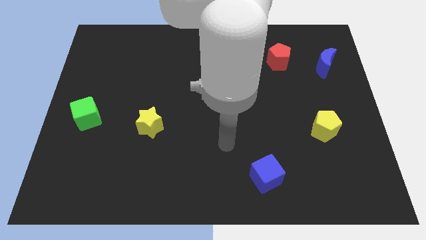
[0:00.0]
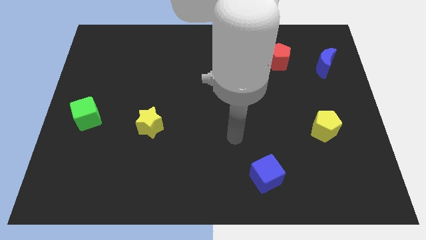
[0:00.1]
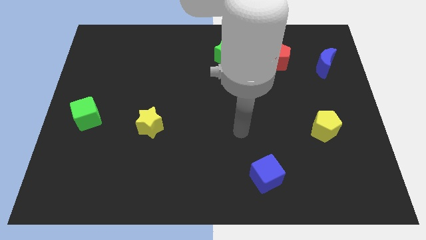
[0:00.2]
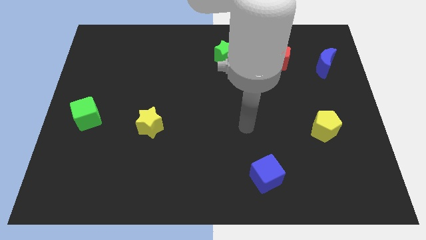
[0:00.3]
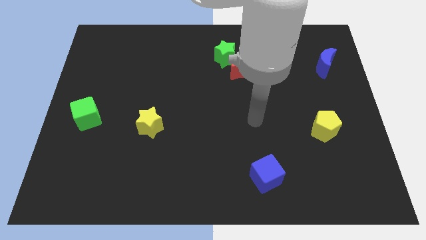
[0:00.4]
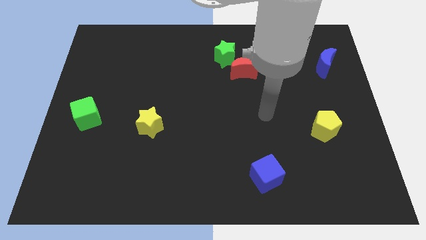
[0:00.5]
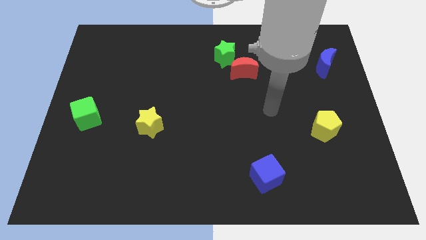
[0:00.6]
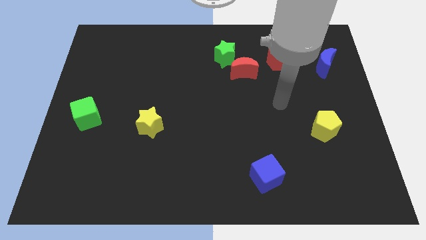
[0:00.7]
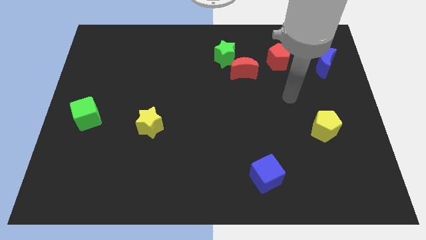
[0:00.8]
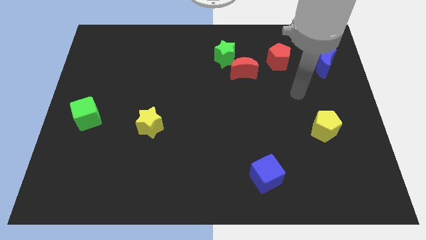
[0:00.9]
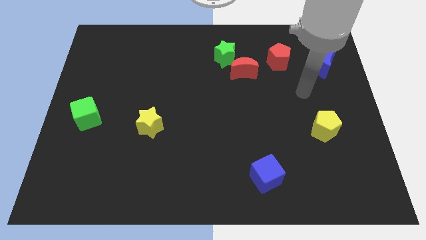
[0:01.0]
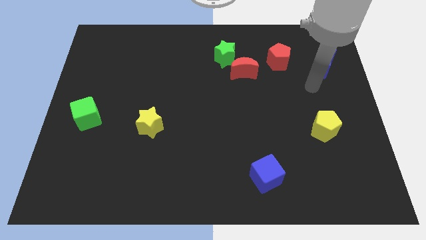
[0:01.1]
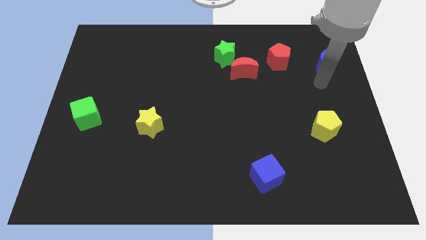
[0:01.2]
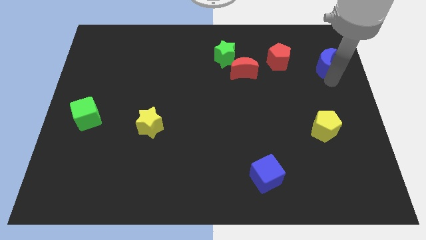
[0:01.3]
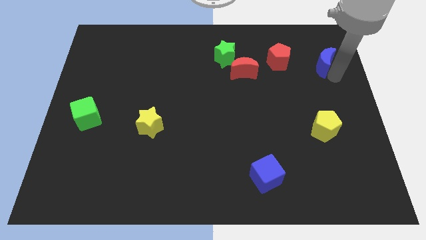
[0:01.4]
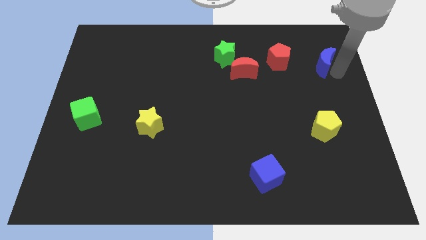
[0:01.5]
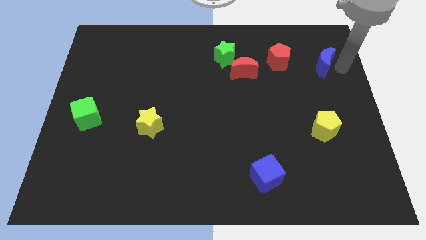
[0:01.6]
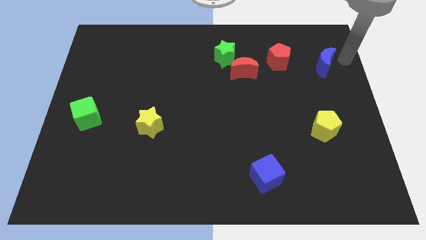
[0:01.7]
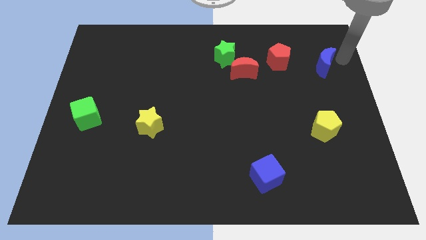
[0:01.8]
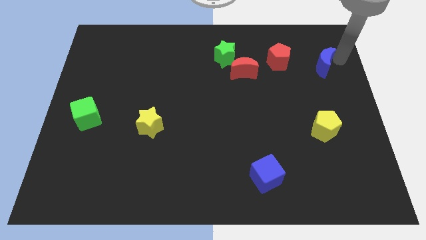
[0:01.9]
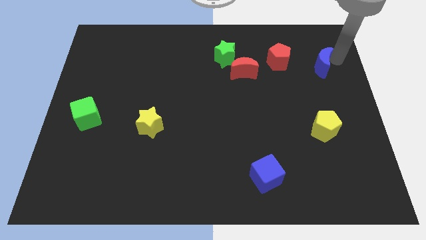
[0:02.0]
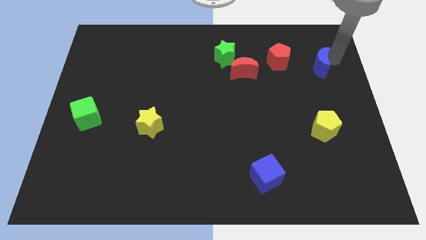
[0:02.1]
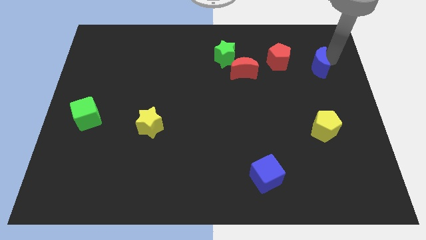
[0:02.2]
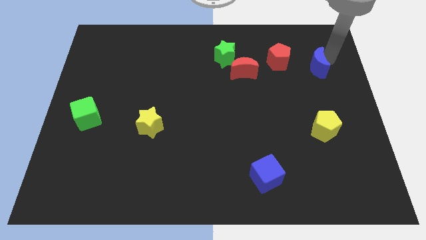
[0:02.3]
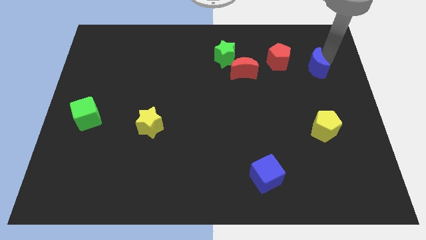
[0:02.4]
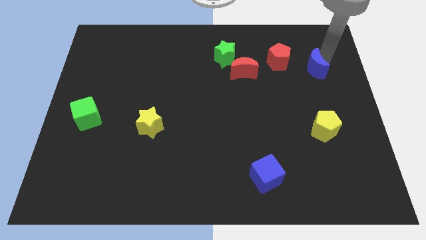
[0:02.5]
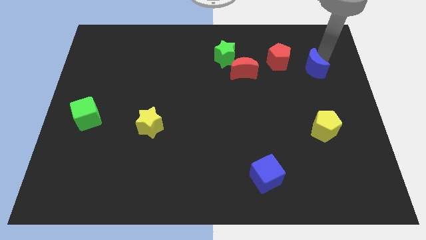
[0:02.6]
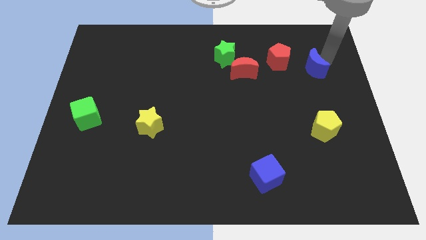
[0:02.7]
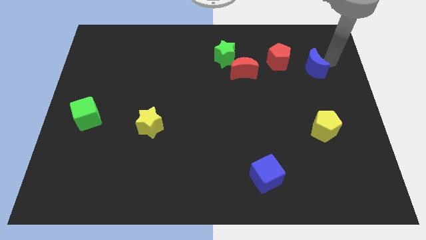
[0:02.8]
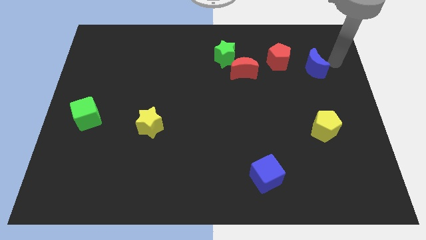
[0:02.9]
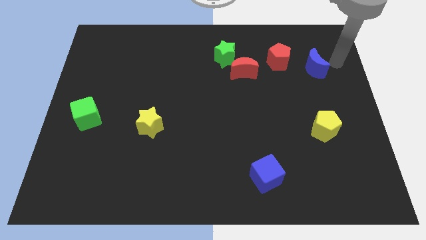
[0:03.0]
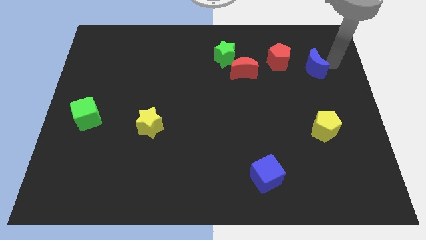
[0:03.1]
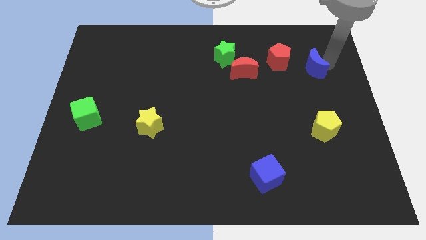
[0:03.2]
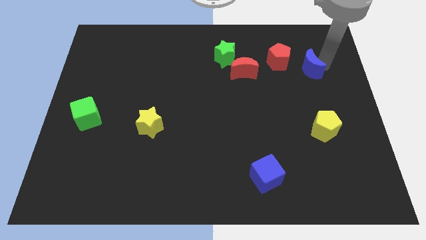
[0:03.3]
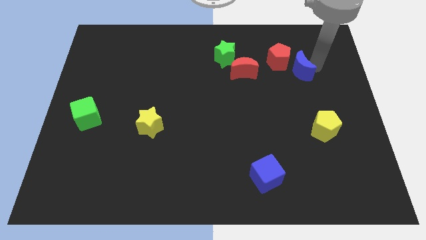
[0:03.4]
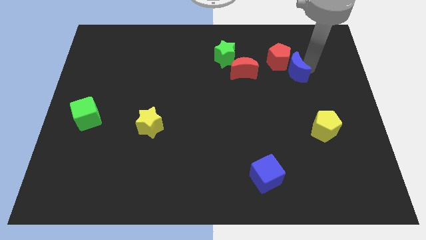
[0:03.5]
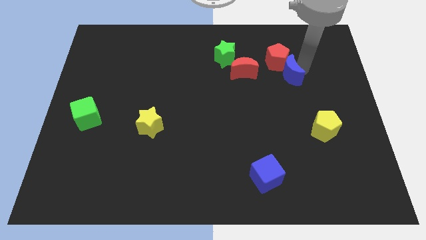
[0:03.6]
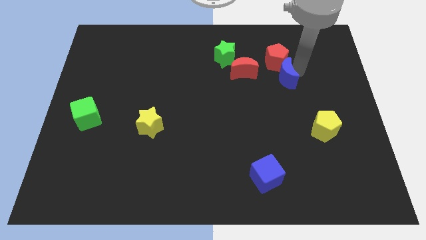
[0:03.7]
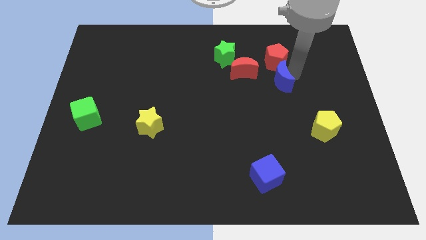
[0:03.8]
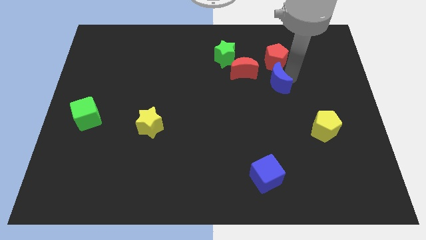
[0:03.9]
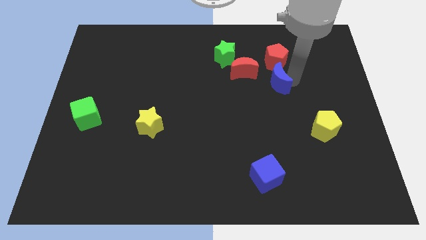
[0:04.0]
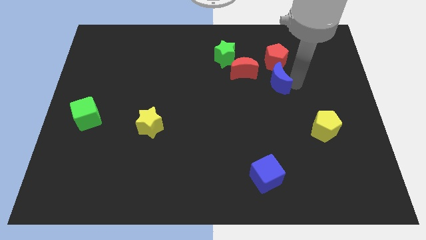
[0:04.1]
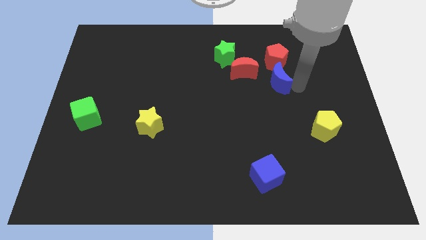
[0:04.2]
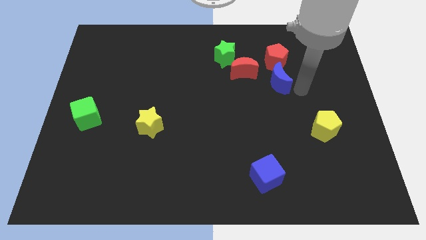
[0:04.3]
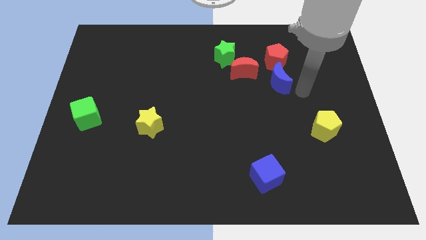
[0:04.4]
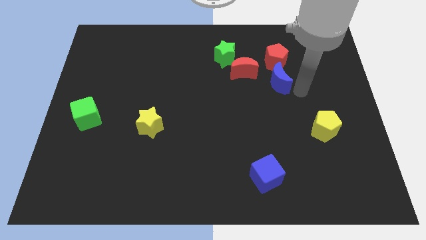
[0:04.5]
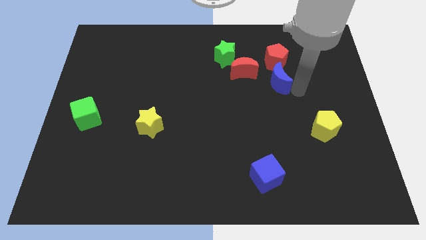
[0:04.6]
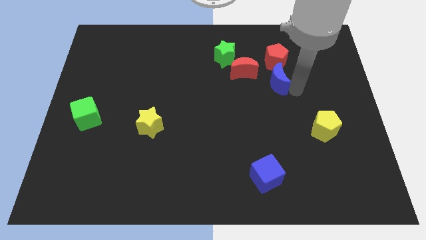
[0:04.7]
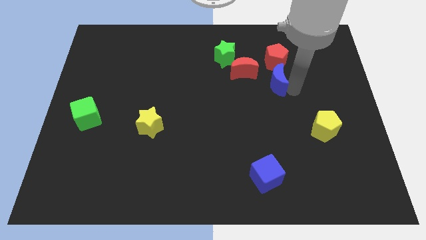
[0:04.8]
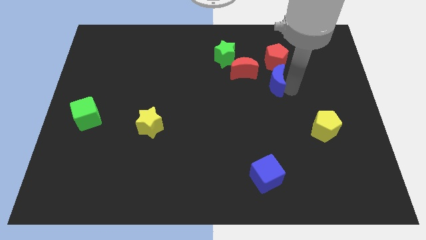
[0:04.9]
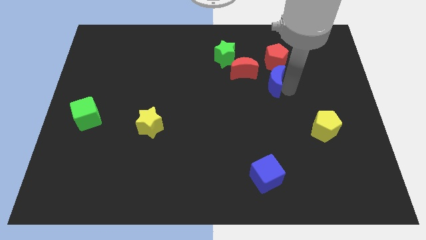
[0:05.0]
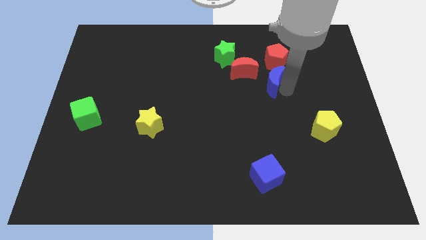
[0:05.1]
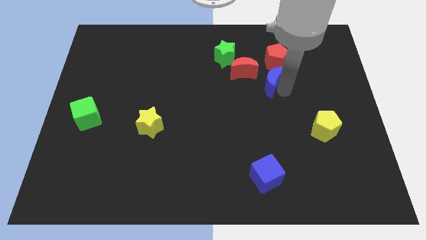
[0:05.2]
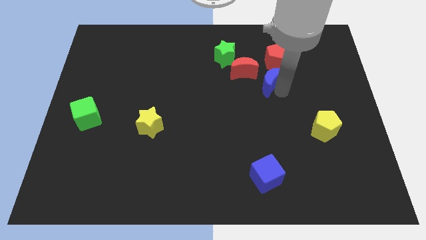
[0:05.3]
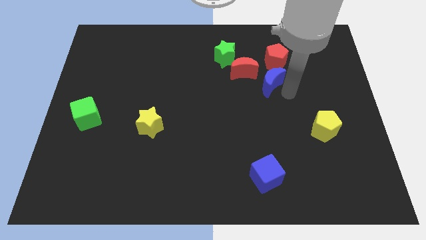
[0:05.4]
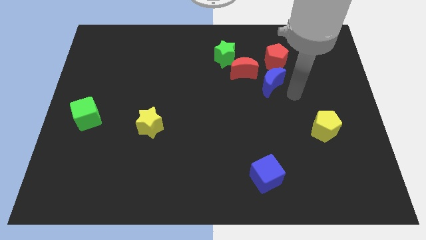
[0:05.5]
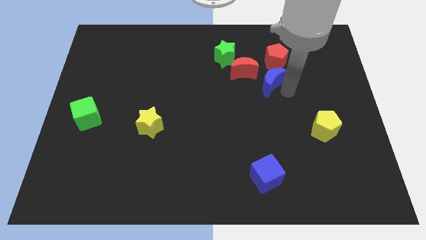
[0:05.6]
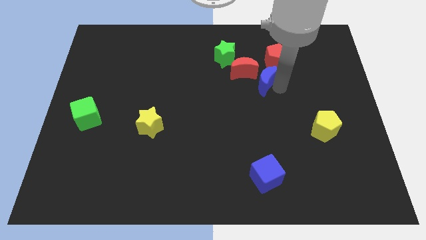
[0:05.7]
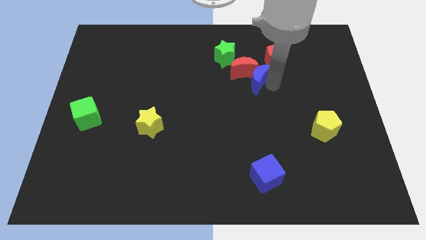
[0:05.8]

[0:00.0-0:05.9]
slide the blue moon to the red moon

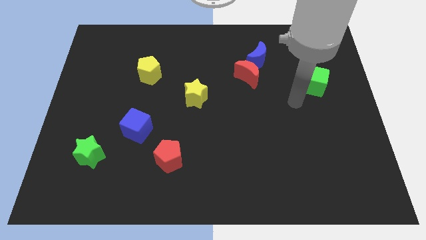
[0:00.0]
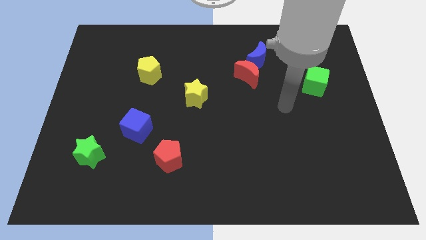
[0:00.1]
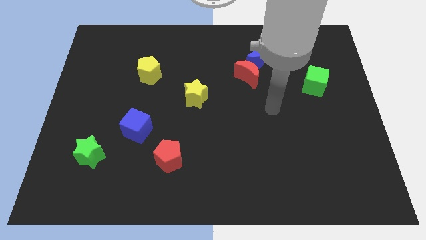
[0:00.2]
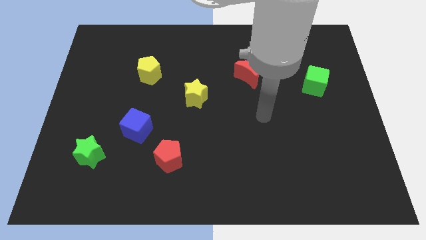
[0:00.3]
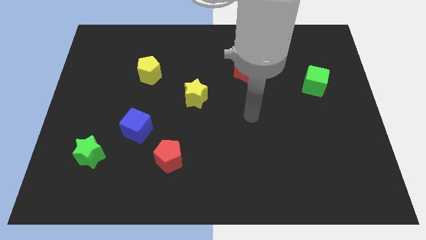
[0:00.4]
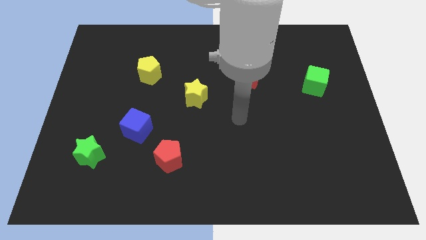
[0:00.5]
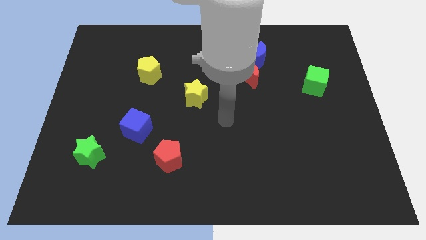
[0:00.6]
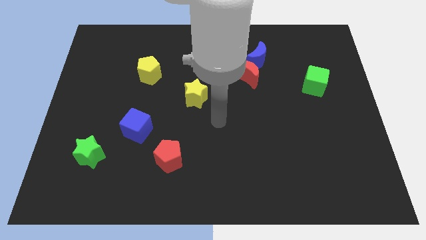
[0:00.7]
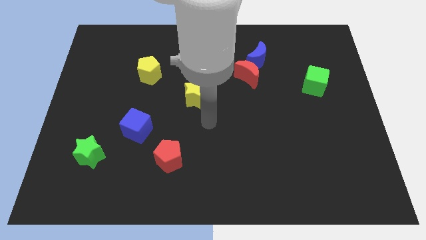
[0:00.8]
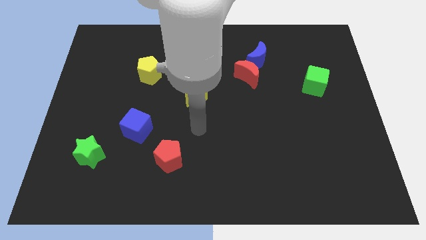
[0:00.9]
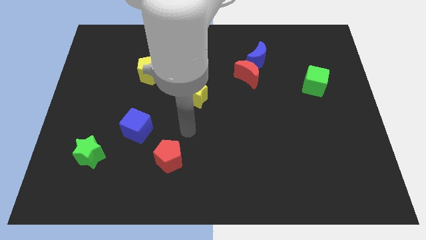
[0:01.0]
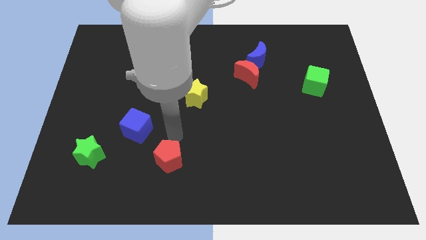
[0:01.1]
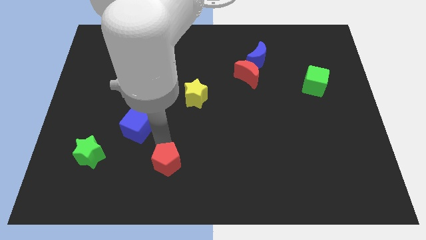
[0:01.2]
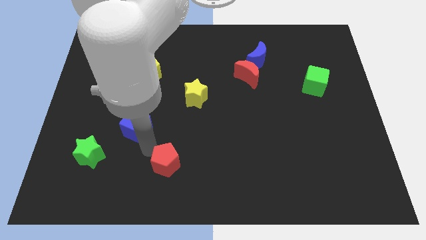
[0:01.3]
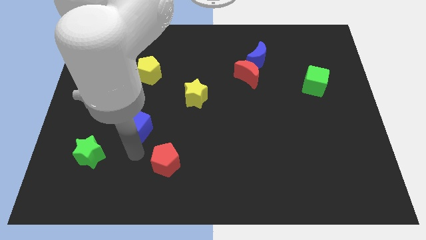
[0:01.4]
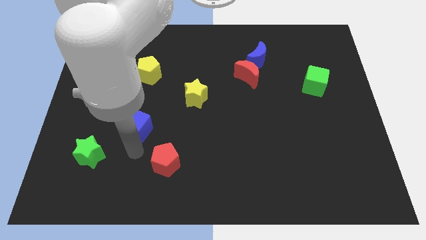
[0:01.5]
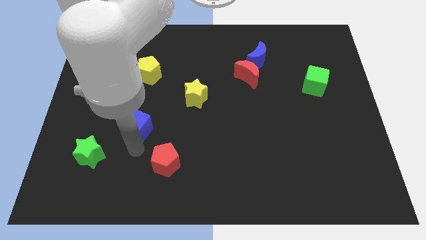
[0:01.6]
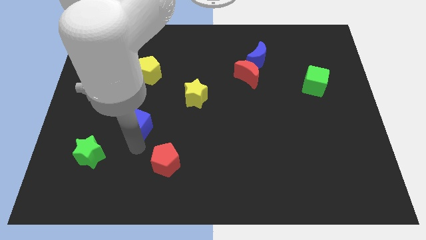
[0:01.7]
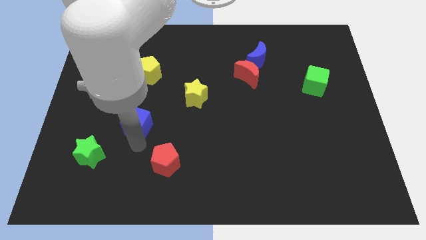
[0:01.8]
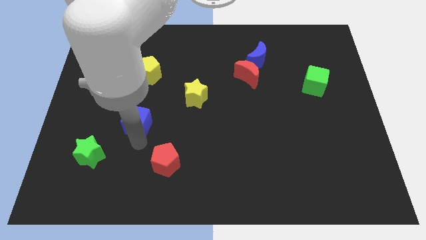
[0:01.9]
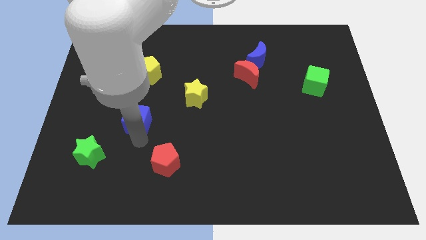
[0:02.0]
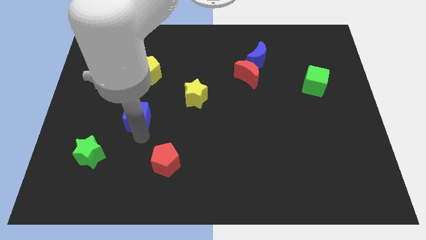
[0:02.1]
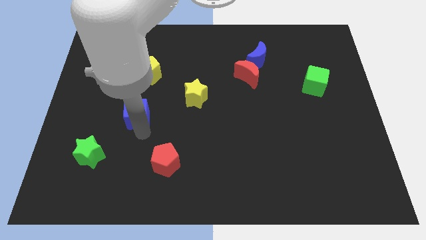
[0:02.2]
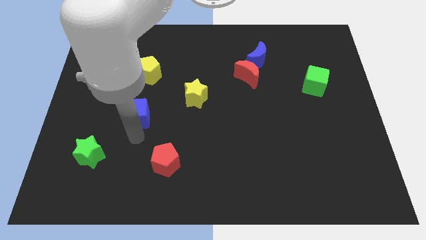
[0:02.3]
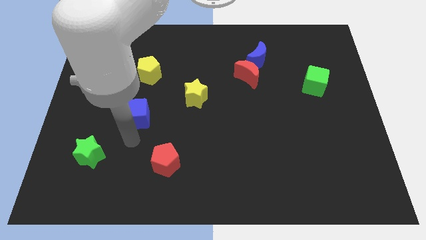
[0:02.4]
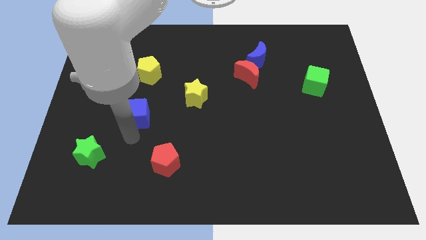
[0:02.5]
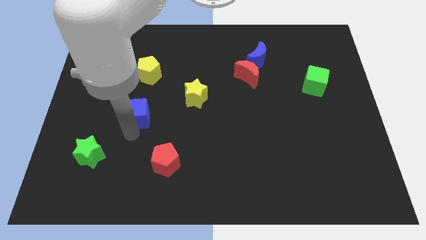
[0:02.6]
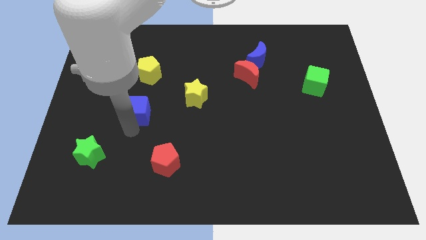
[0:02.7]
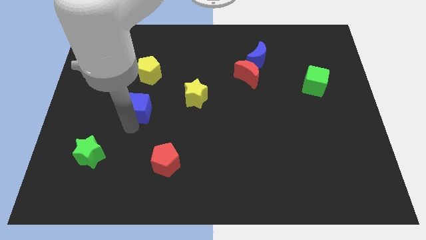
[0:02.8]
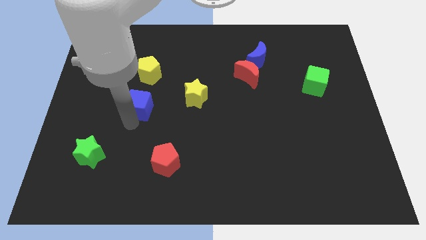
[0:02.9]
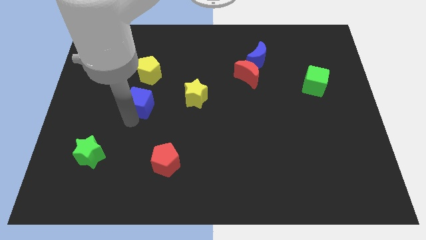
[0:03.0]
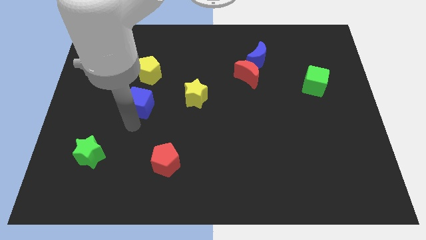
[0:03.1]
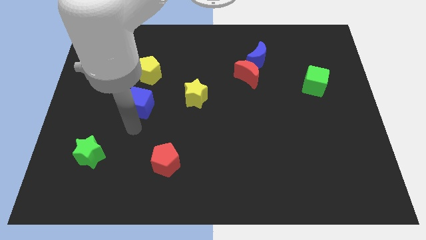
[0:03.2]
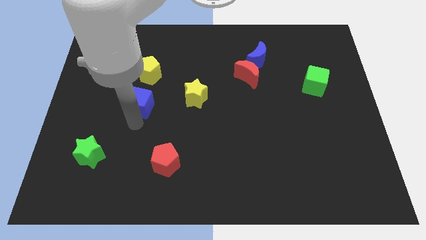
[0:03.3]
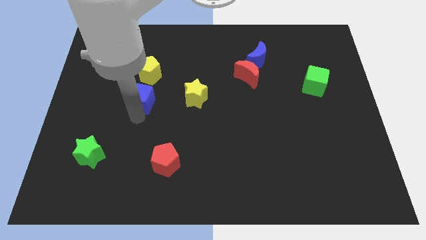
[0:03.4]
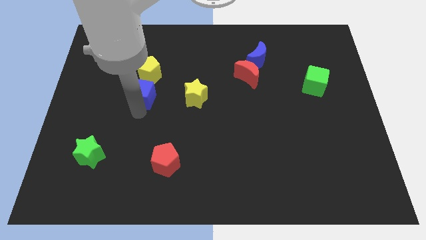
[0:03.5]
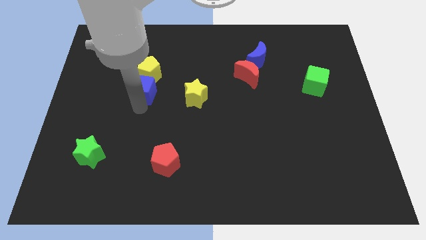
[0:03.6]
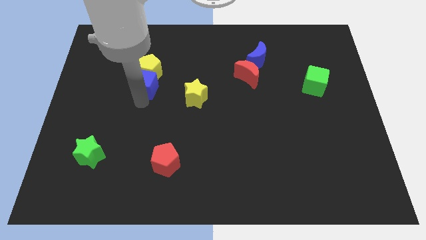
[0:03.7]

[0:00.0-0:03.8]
slide the blue cube close to the yellow pentagon
